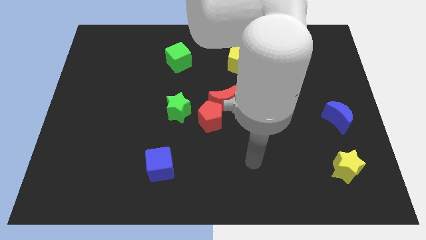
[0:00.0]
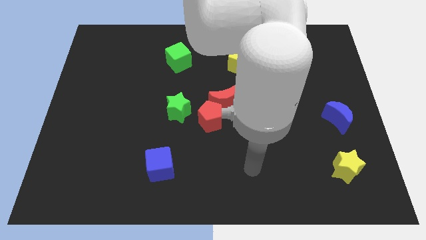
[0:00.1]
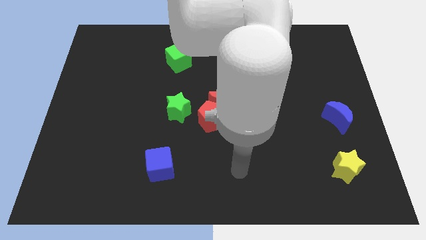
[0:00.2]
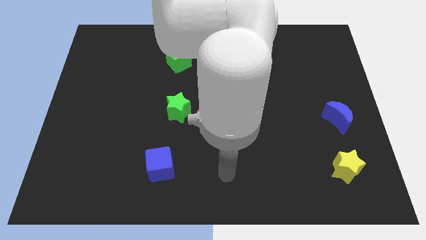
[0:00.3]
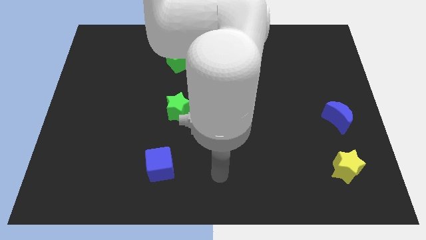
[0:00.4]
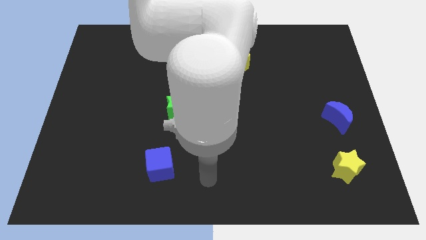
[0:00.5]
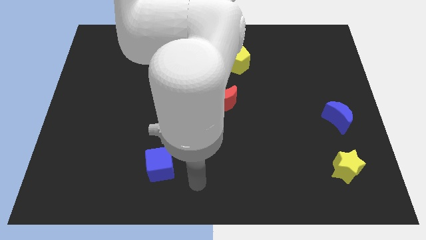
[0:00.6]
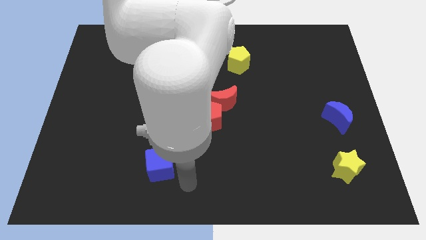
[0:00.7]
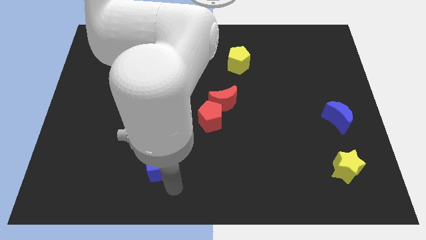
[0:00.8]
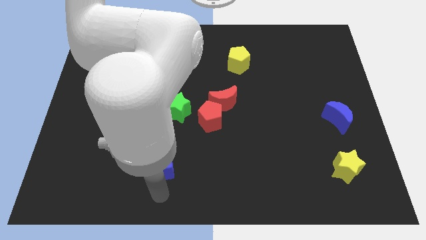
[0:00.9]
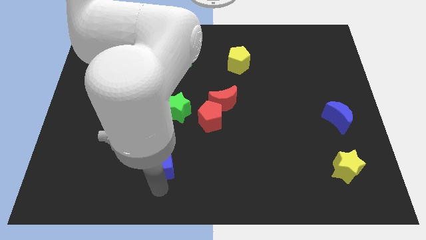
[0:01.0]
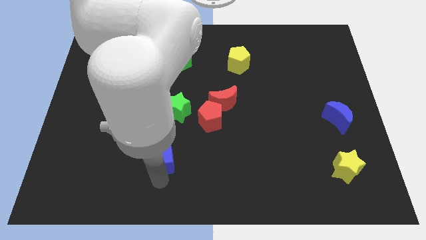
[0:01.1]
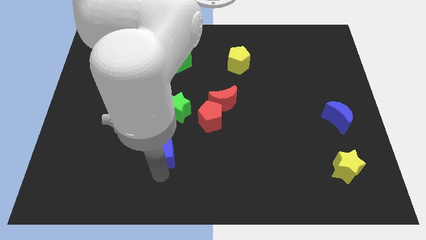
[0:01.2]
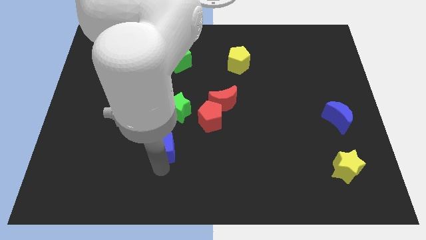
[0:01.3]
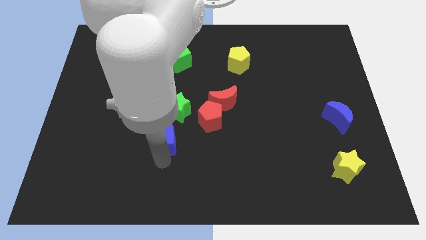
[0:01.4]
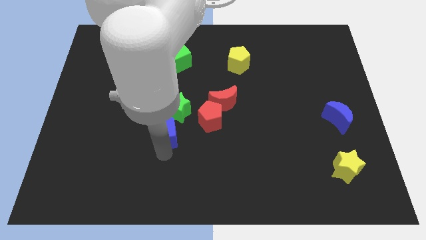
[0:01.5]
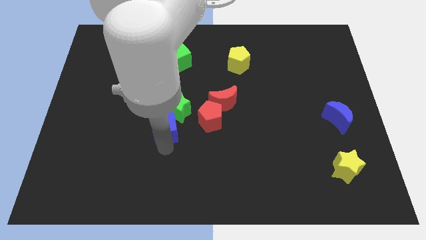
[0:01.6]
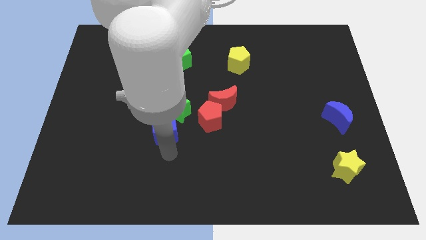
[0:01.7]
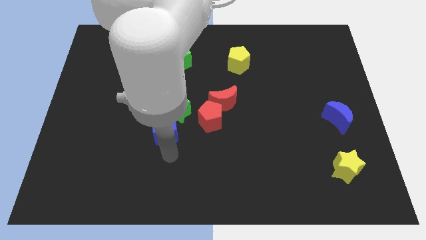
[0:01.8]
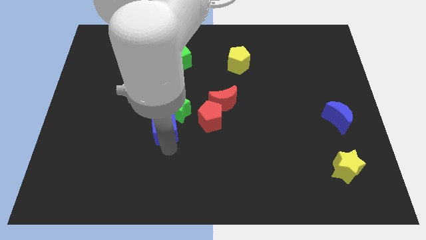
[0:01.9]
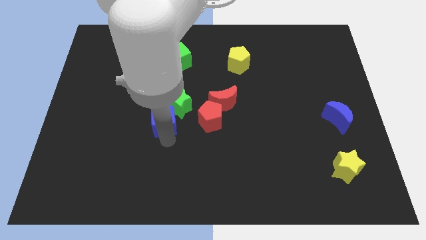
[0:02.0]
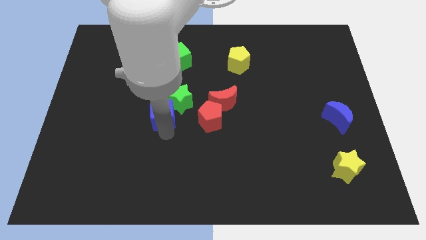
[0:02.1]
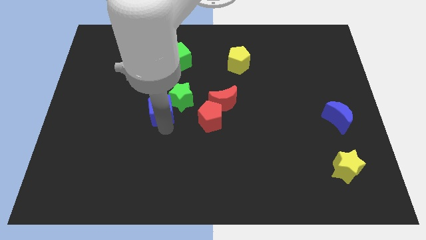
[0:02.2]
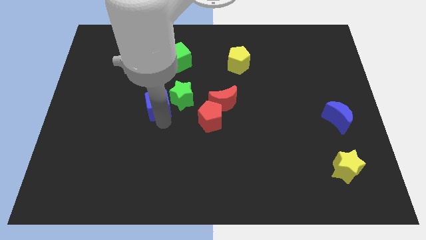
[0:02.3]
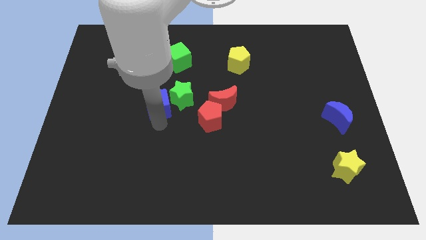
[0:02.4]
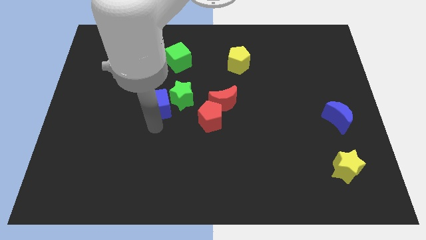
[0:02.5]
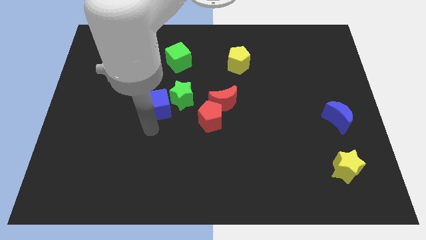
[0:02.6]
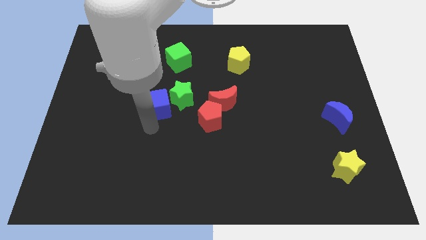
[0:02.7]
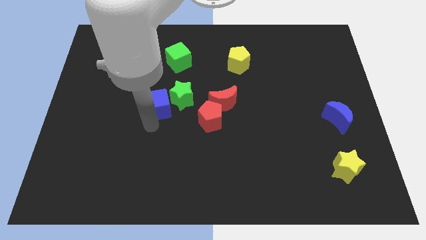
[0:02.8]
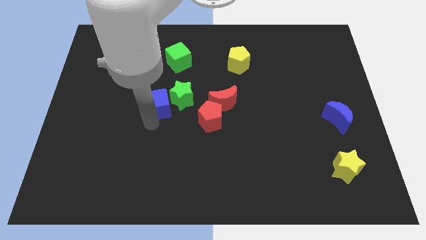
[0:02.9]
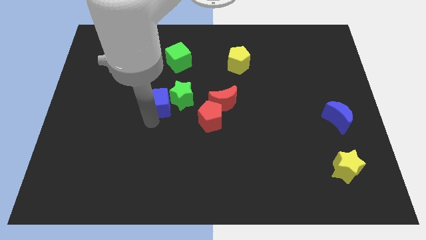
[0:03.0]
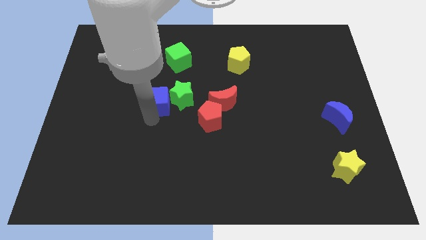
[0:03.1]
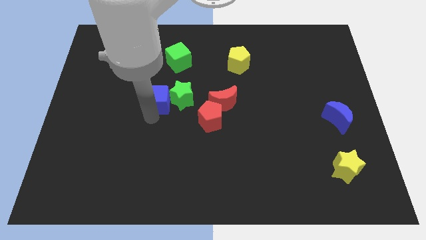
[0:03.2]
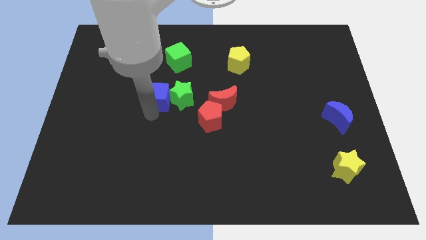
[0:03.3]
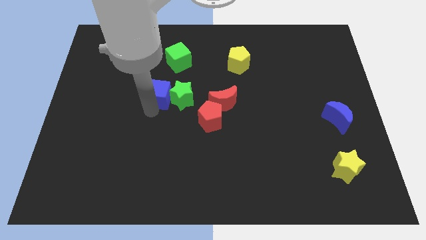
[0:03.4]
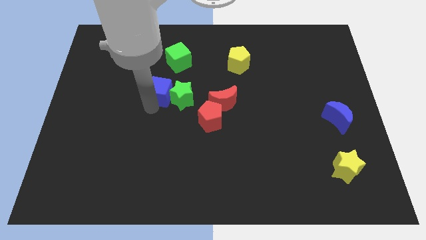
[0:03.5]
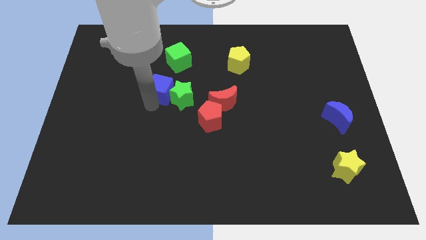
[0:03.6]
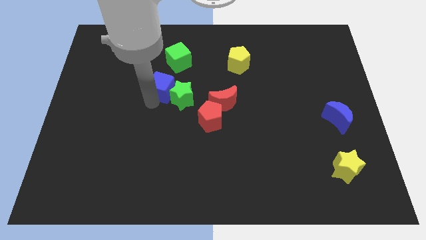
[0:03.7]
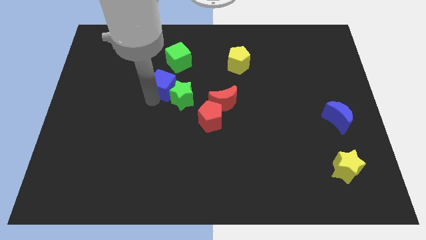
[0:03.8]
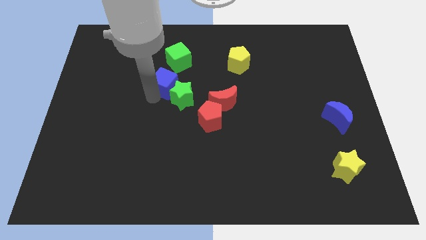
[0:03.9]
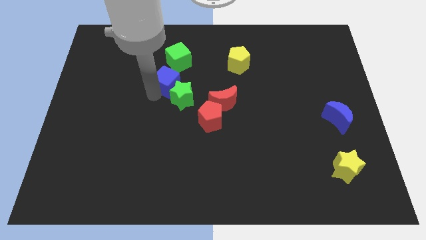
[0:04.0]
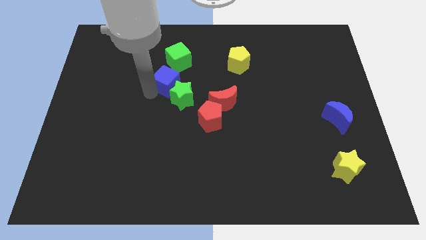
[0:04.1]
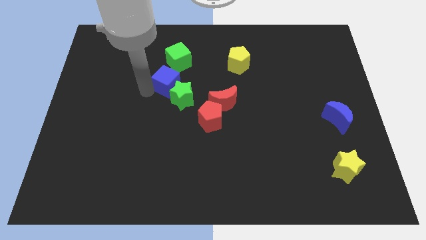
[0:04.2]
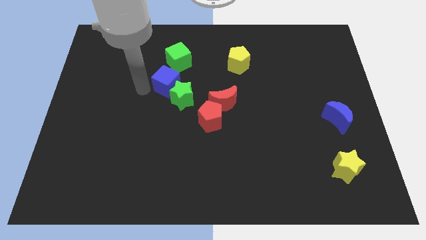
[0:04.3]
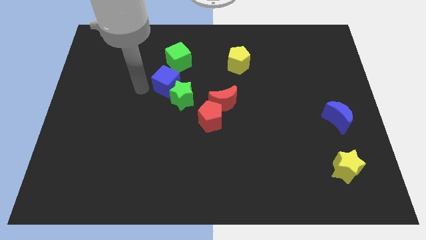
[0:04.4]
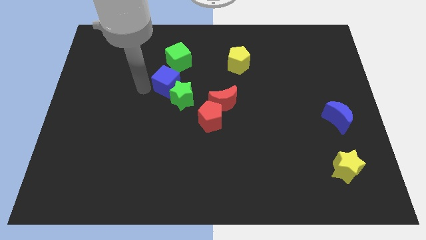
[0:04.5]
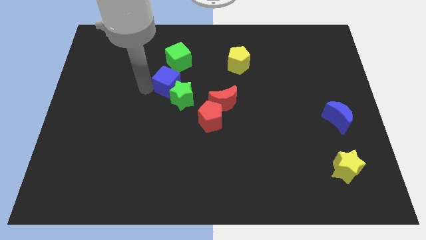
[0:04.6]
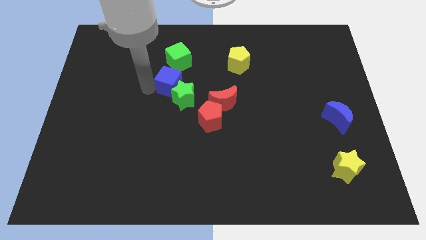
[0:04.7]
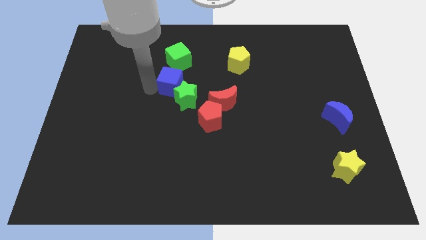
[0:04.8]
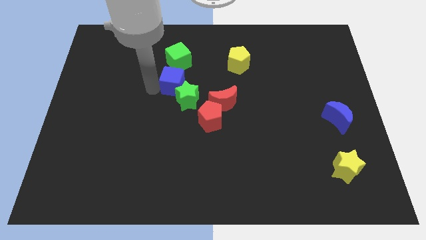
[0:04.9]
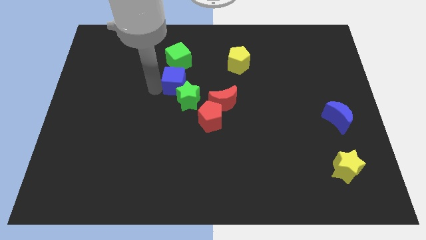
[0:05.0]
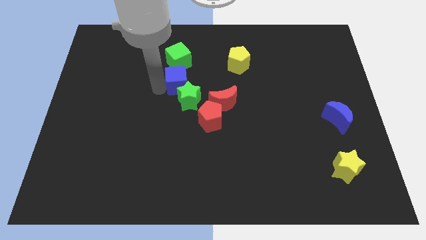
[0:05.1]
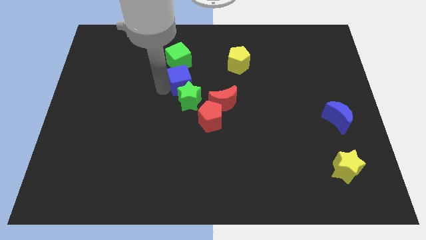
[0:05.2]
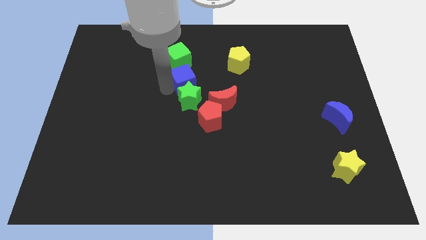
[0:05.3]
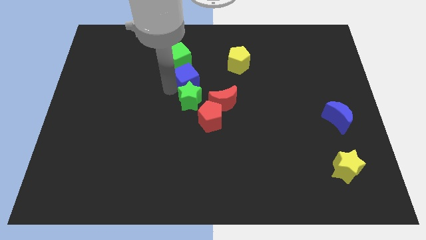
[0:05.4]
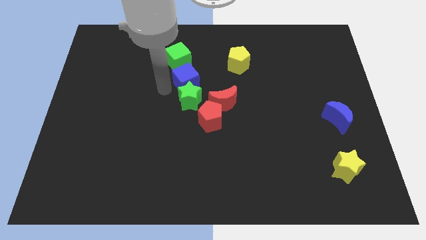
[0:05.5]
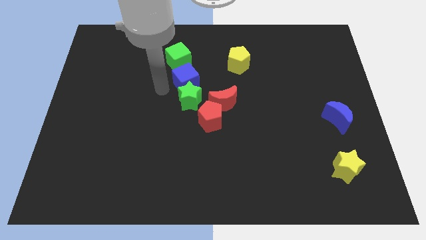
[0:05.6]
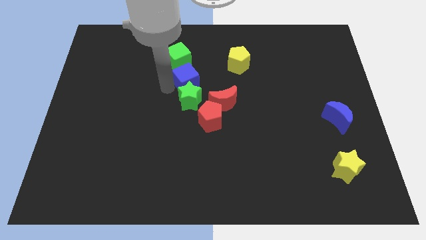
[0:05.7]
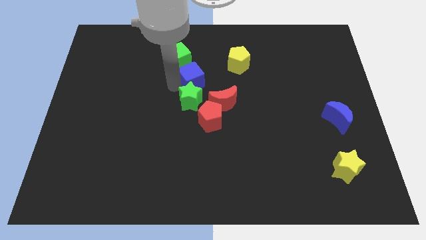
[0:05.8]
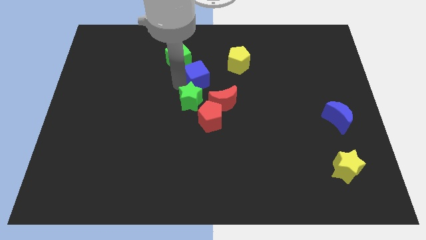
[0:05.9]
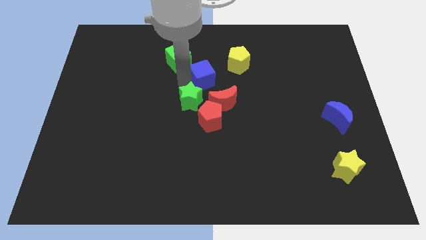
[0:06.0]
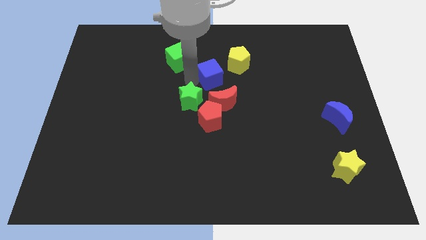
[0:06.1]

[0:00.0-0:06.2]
move the blue cube to the top of the red moon
